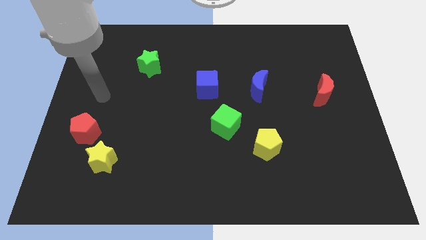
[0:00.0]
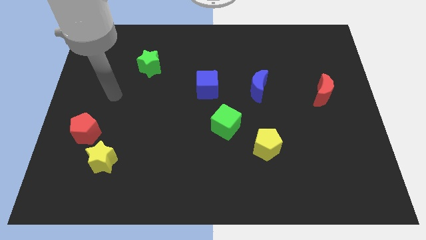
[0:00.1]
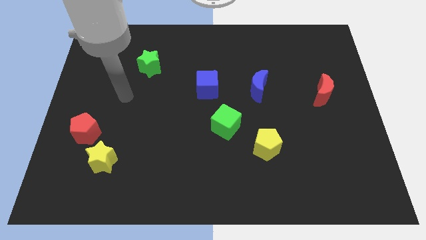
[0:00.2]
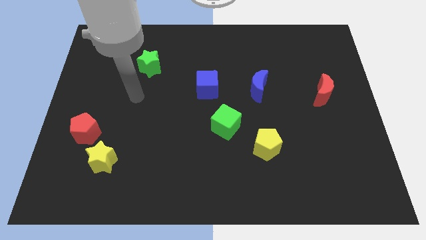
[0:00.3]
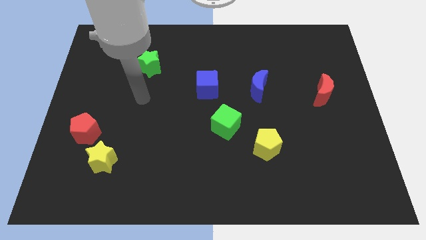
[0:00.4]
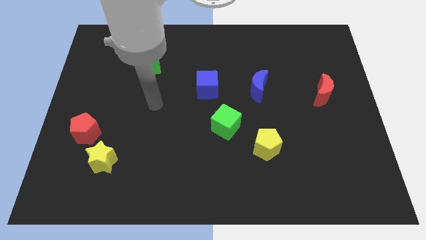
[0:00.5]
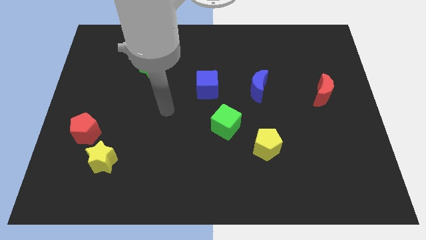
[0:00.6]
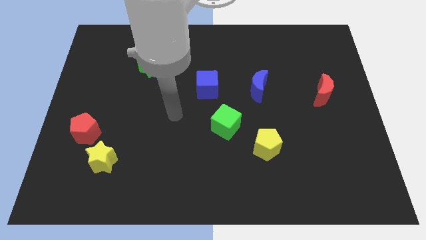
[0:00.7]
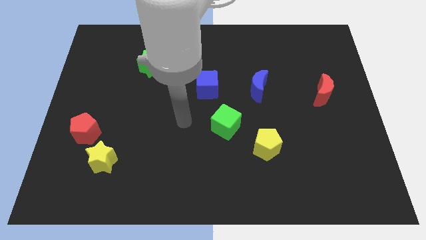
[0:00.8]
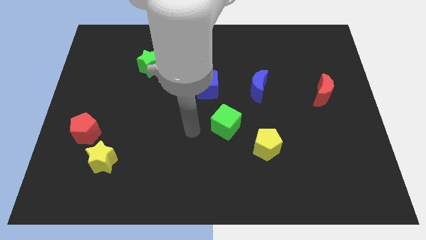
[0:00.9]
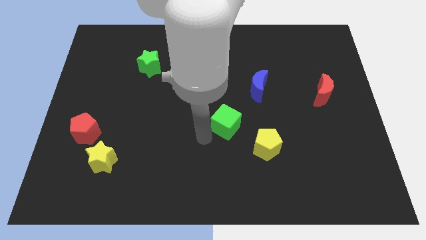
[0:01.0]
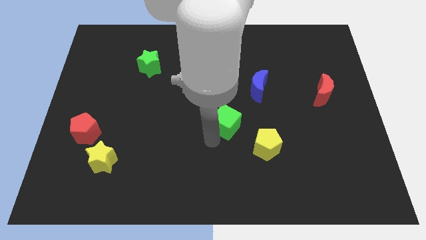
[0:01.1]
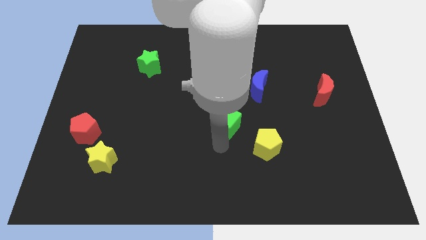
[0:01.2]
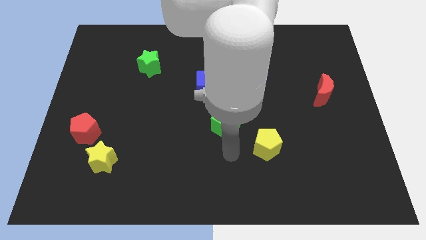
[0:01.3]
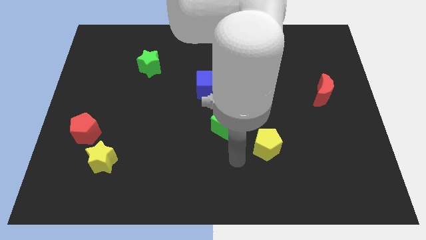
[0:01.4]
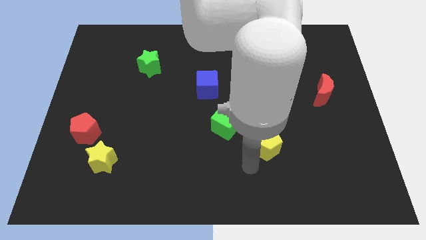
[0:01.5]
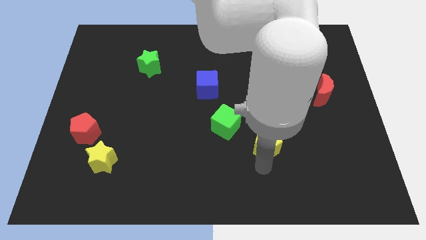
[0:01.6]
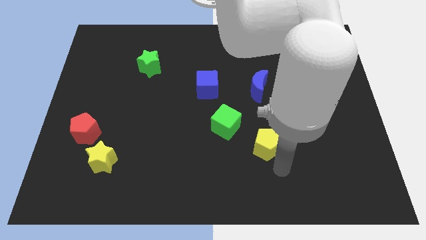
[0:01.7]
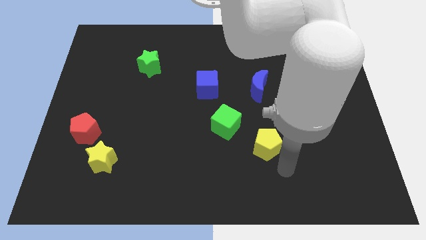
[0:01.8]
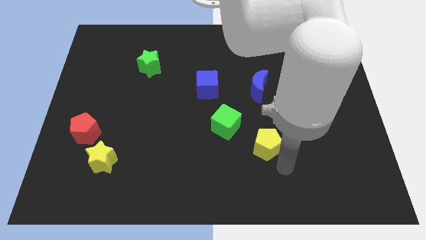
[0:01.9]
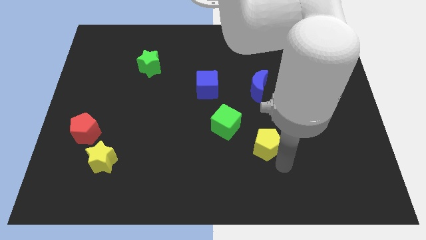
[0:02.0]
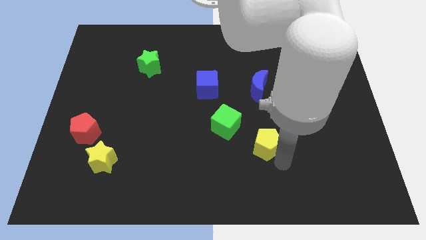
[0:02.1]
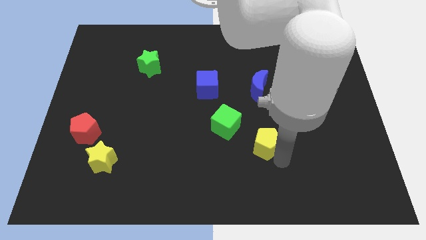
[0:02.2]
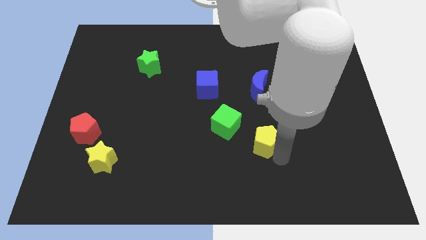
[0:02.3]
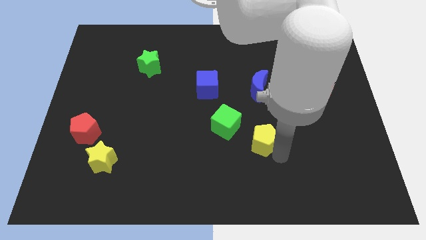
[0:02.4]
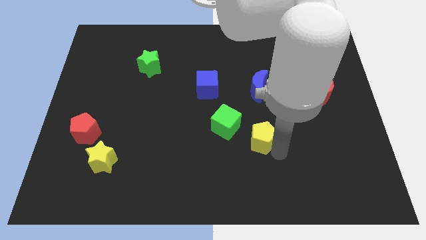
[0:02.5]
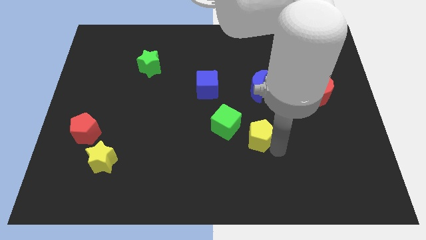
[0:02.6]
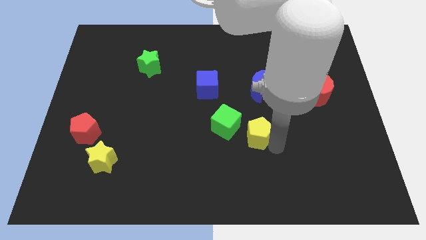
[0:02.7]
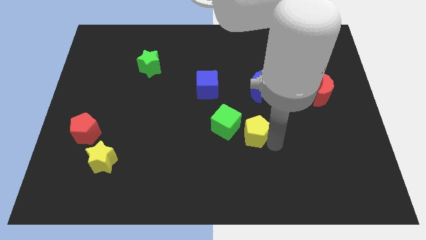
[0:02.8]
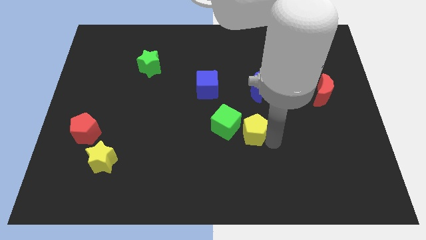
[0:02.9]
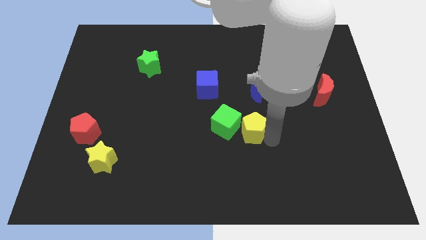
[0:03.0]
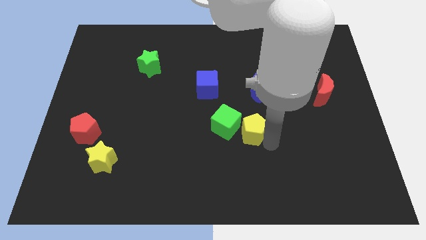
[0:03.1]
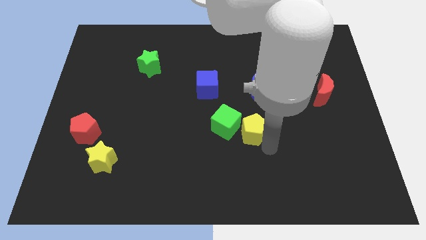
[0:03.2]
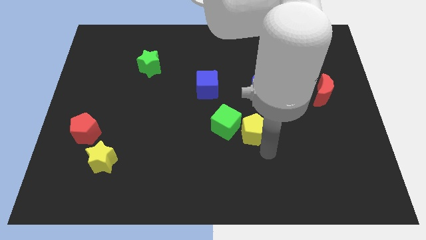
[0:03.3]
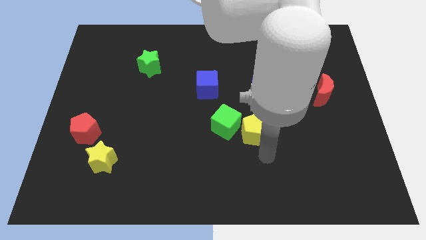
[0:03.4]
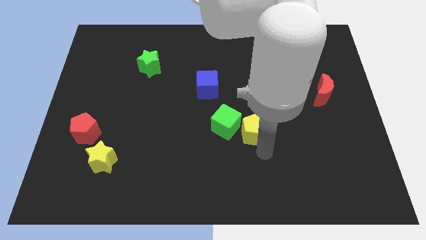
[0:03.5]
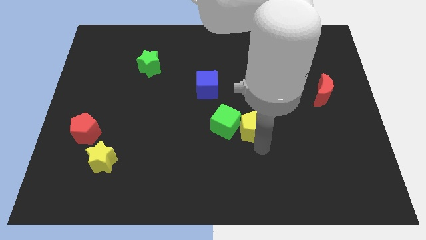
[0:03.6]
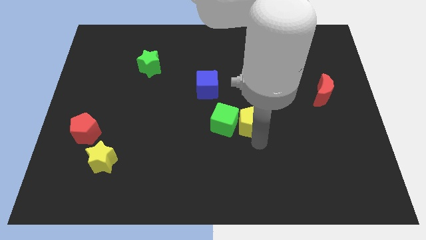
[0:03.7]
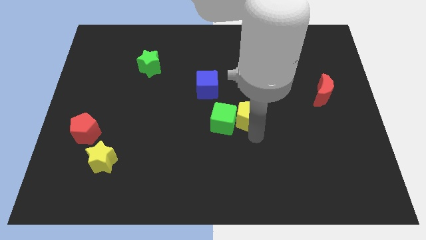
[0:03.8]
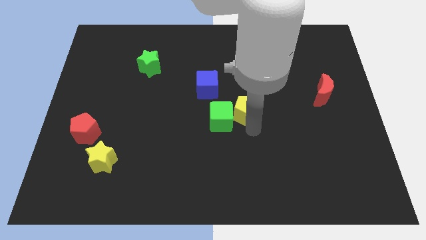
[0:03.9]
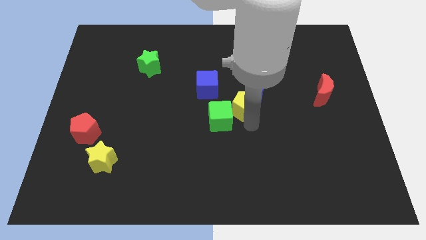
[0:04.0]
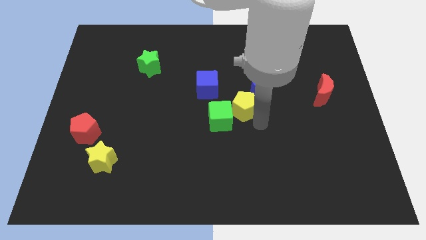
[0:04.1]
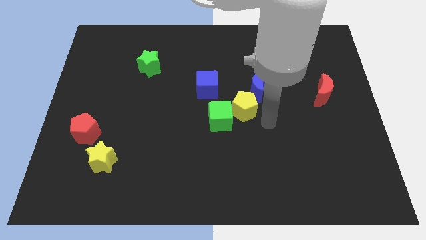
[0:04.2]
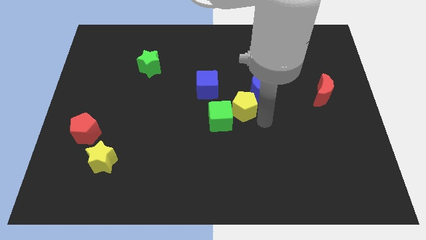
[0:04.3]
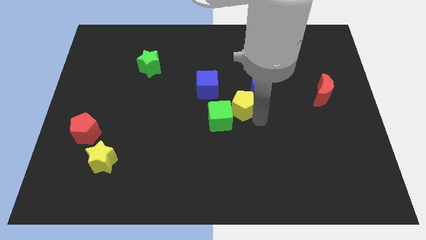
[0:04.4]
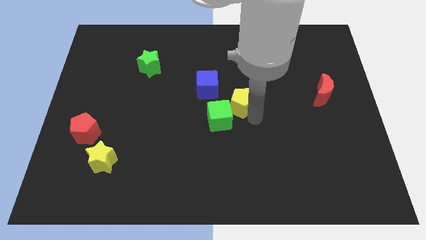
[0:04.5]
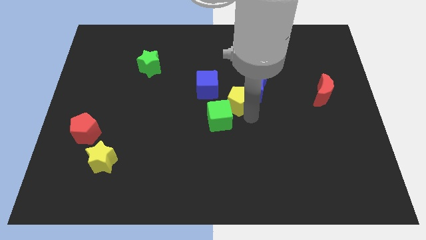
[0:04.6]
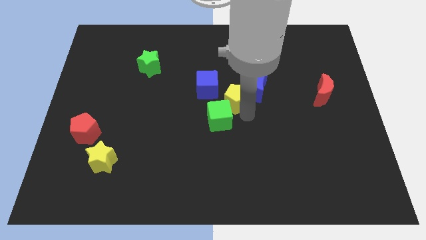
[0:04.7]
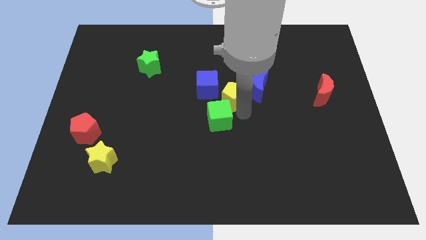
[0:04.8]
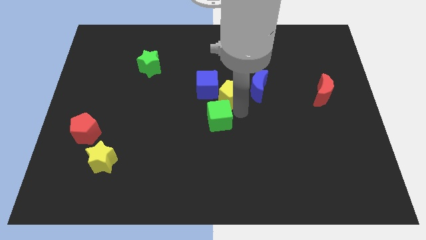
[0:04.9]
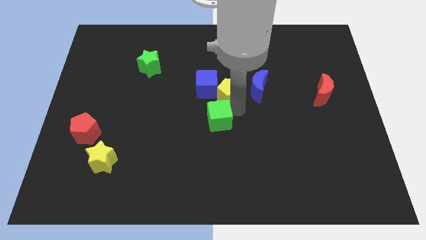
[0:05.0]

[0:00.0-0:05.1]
move the yellow pentagon towards the blue cube

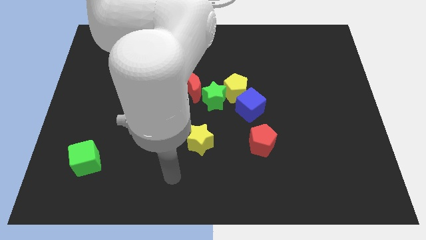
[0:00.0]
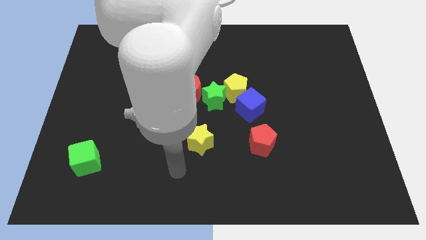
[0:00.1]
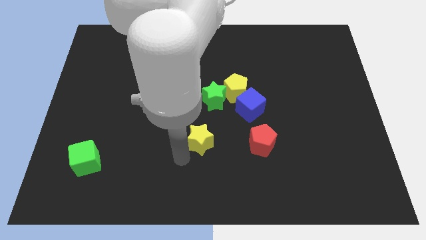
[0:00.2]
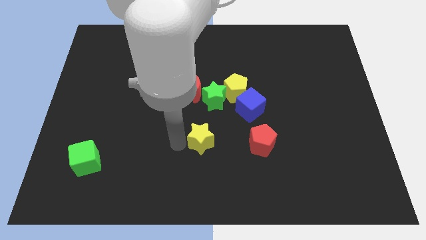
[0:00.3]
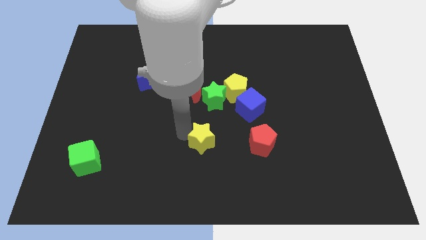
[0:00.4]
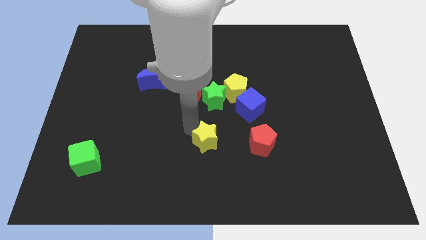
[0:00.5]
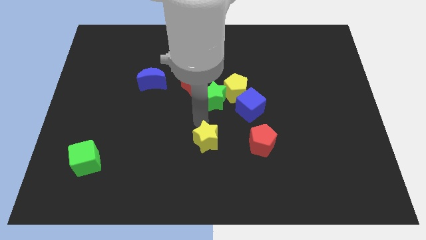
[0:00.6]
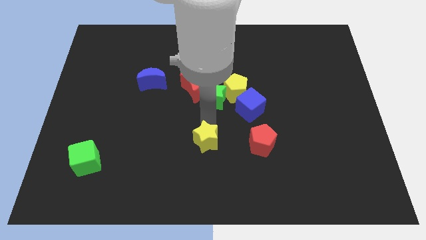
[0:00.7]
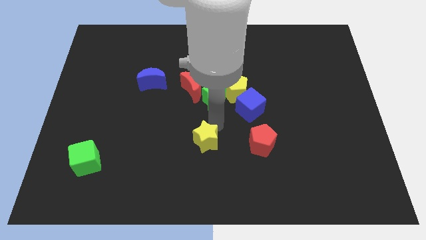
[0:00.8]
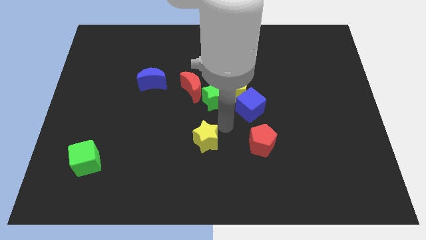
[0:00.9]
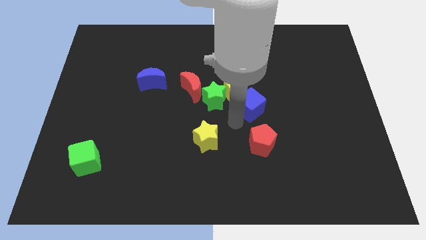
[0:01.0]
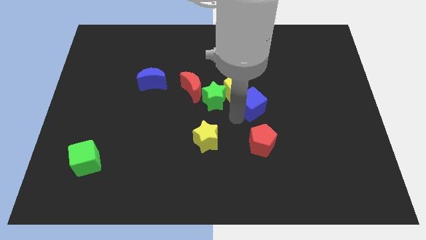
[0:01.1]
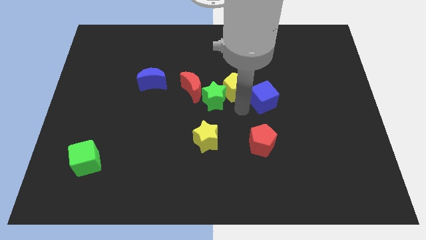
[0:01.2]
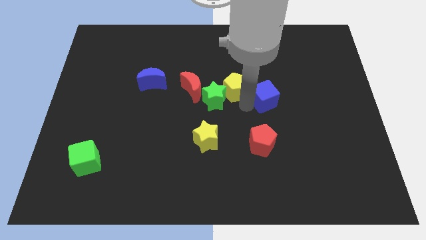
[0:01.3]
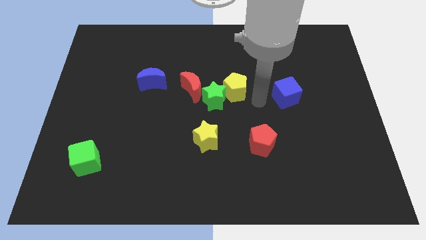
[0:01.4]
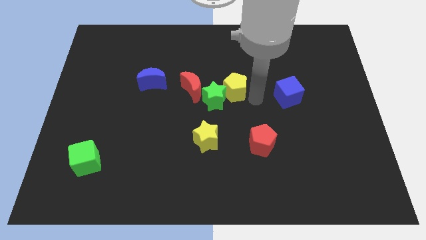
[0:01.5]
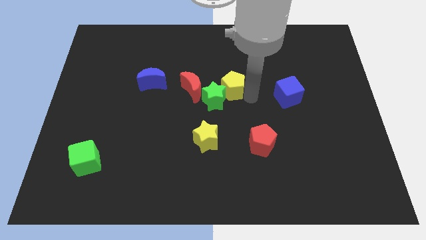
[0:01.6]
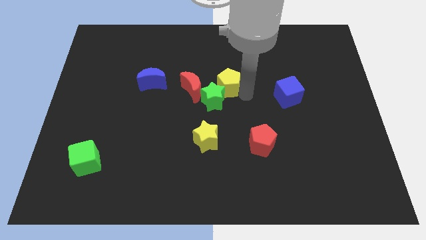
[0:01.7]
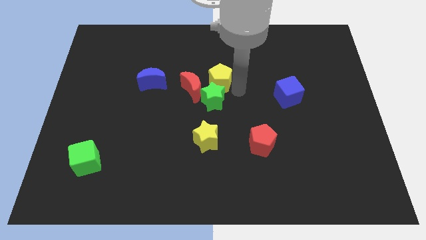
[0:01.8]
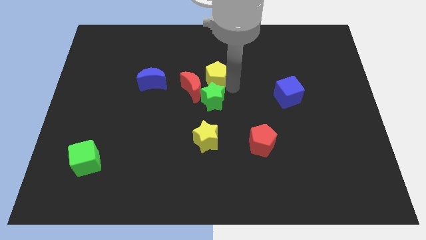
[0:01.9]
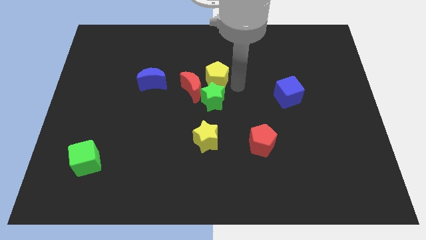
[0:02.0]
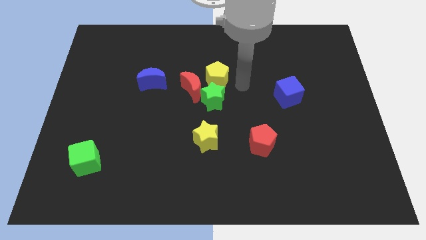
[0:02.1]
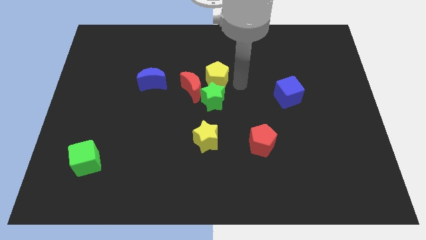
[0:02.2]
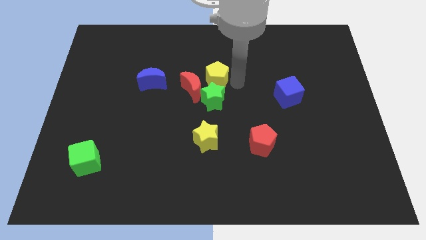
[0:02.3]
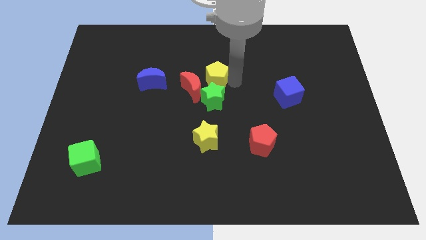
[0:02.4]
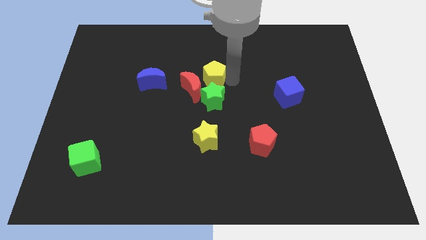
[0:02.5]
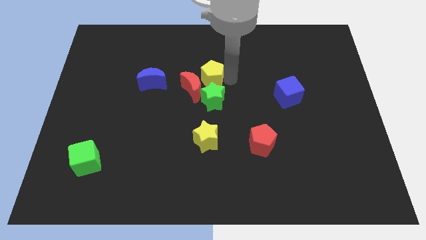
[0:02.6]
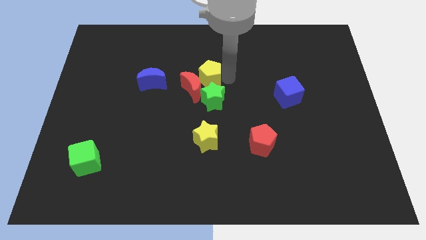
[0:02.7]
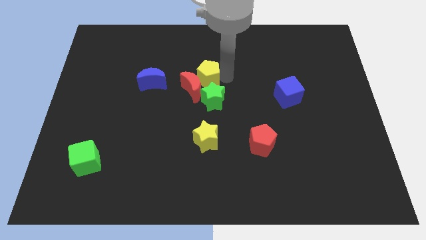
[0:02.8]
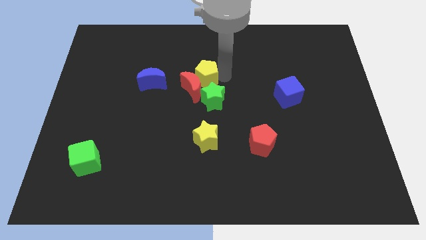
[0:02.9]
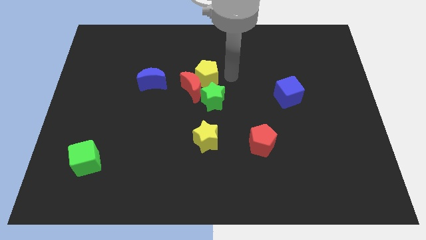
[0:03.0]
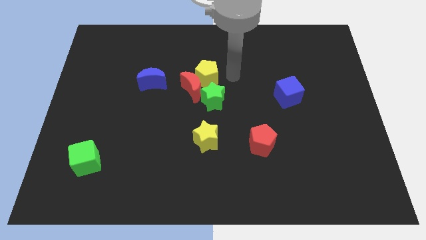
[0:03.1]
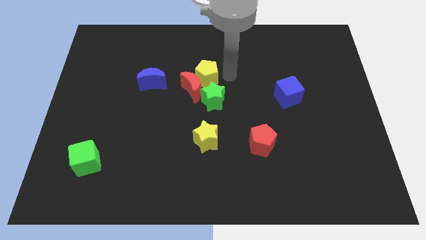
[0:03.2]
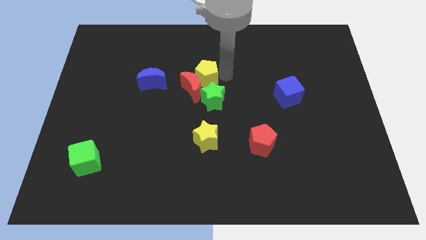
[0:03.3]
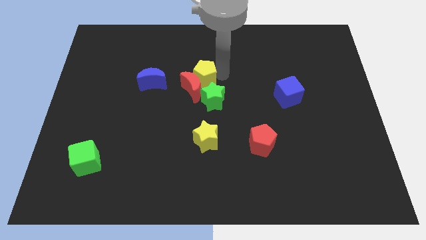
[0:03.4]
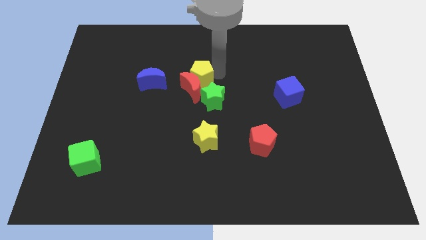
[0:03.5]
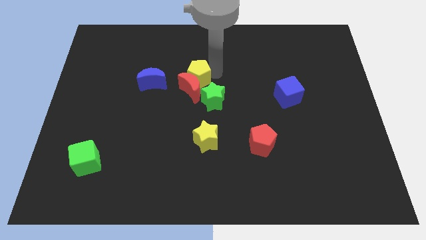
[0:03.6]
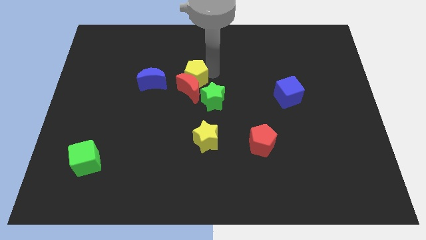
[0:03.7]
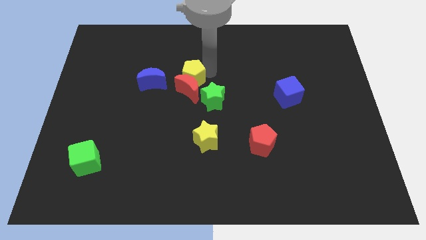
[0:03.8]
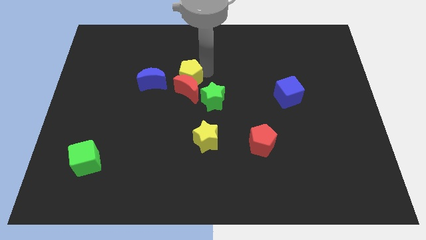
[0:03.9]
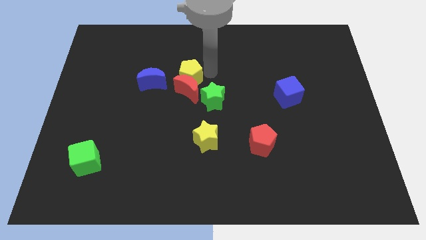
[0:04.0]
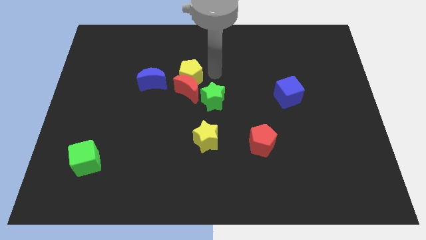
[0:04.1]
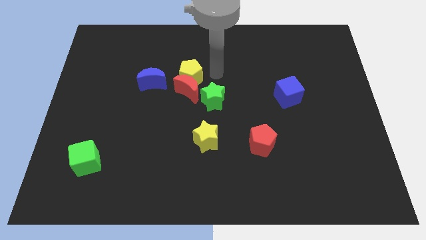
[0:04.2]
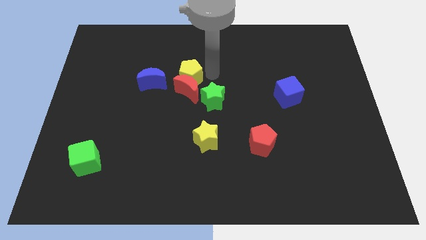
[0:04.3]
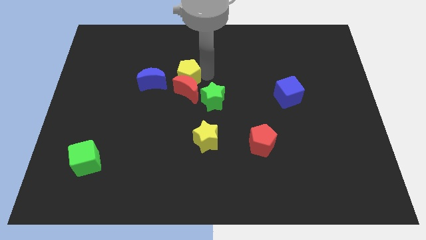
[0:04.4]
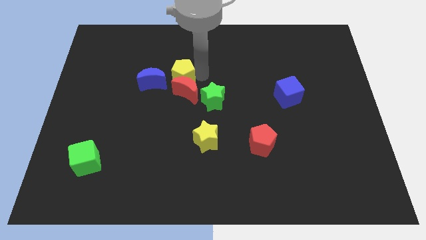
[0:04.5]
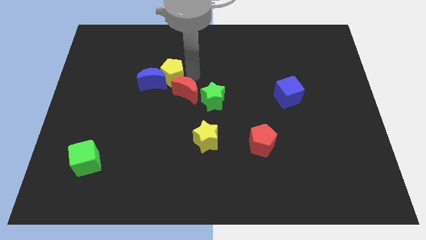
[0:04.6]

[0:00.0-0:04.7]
slide the yellow pentagon to the blue moon
